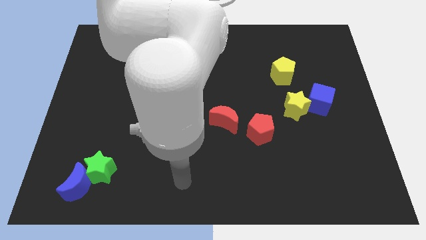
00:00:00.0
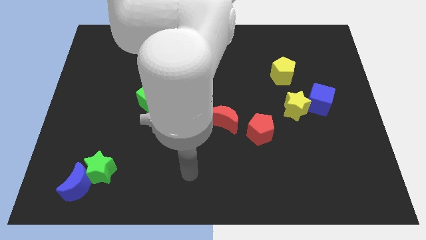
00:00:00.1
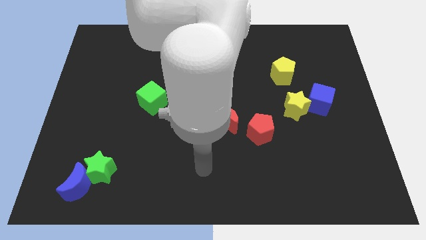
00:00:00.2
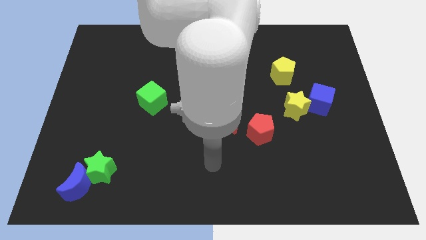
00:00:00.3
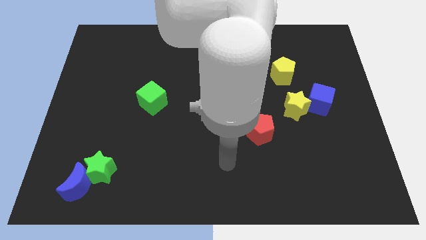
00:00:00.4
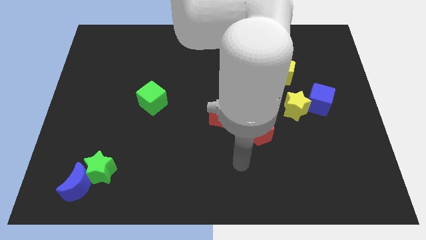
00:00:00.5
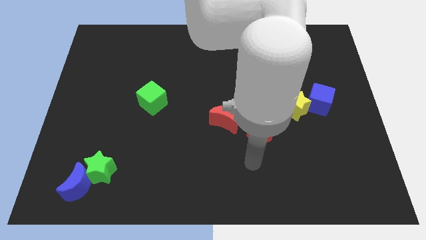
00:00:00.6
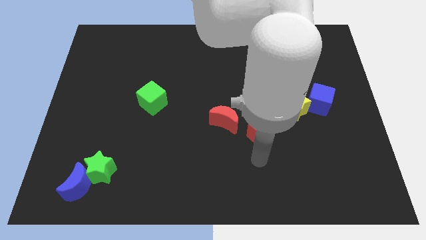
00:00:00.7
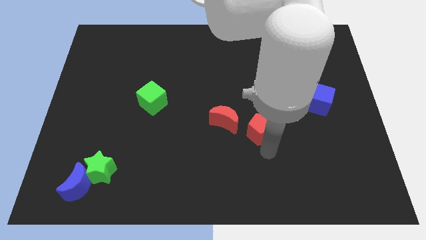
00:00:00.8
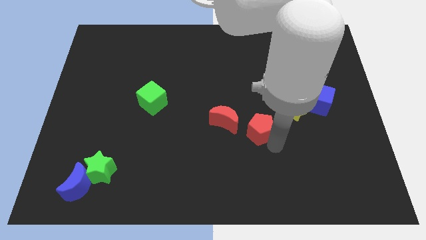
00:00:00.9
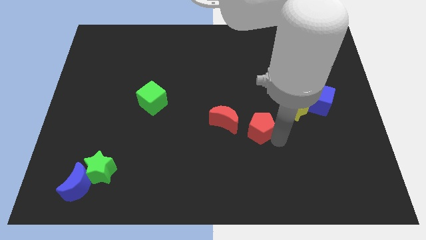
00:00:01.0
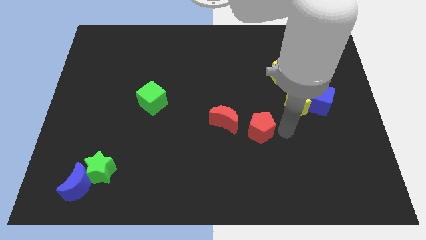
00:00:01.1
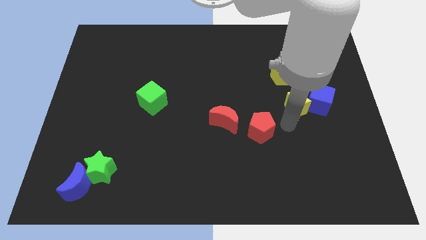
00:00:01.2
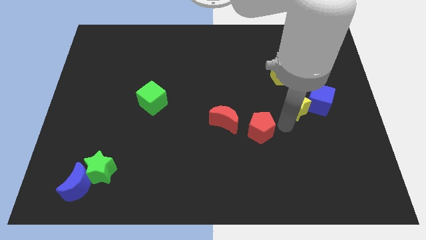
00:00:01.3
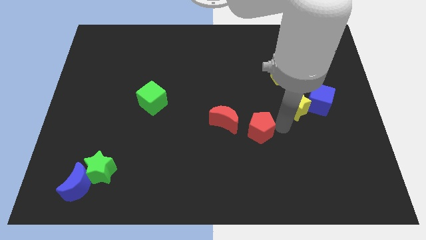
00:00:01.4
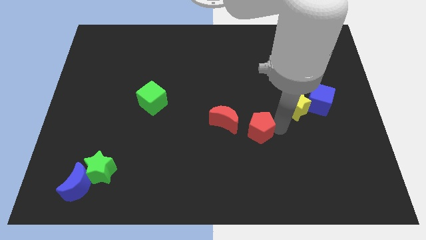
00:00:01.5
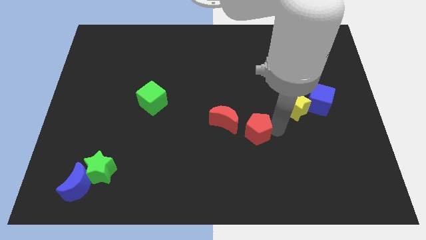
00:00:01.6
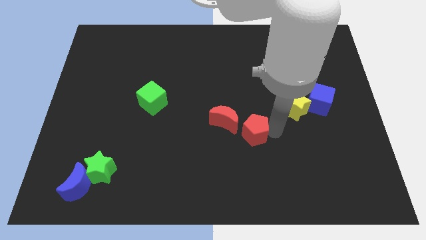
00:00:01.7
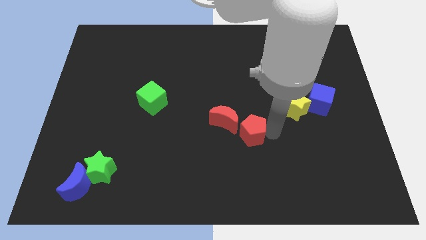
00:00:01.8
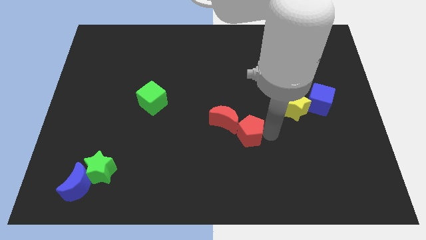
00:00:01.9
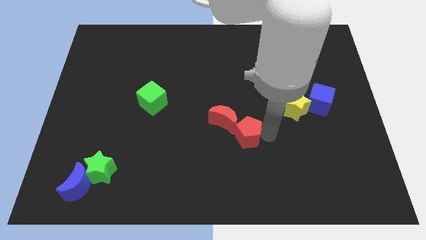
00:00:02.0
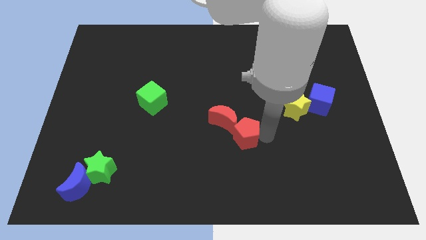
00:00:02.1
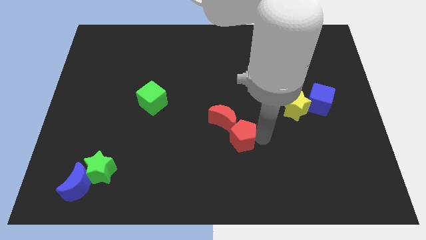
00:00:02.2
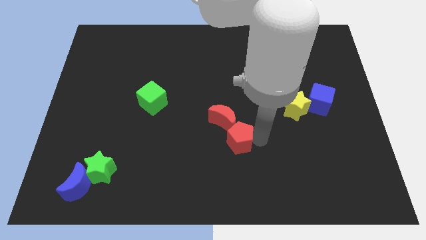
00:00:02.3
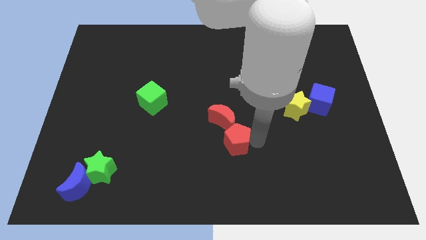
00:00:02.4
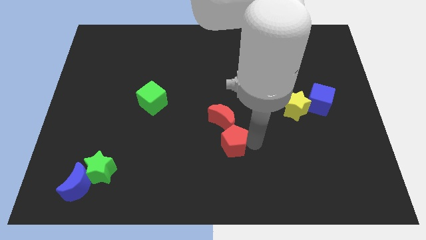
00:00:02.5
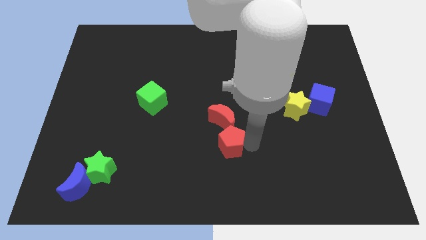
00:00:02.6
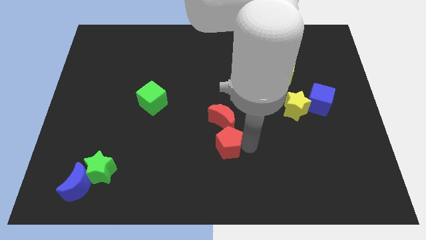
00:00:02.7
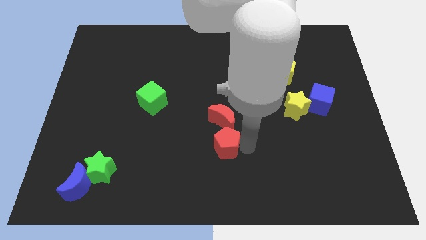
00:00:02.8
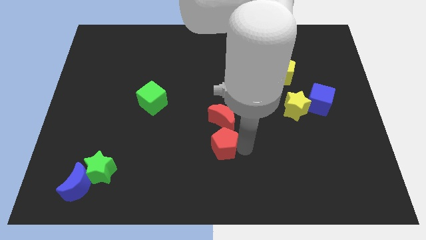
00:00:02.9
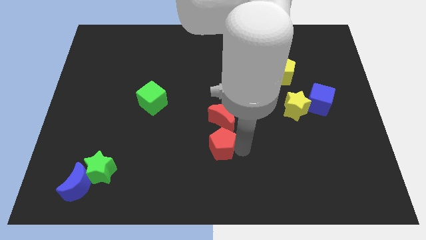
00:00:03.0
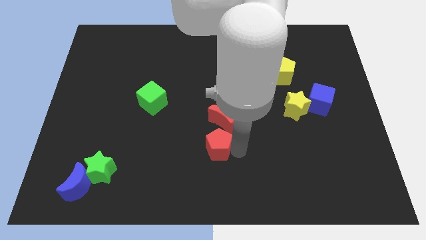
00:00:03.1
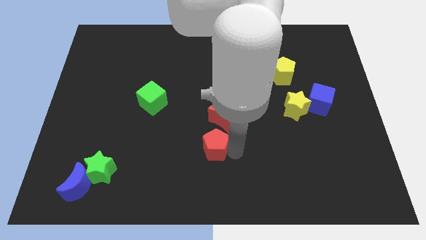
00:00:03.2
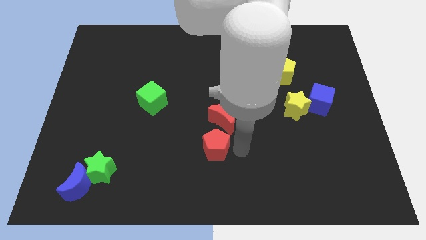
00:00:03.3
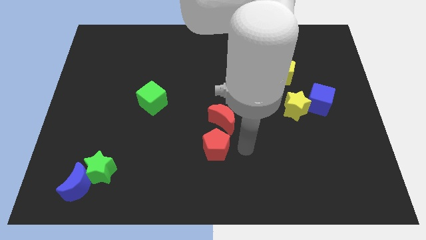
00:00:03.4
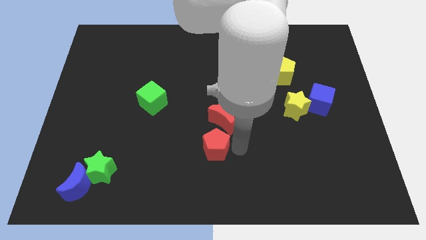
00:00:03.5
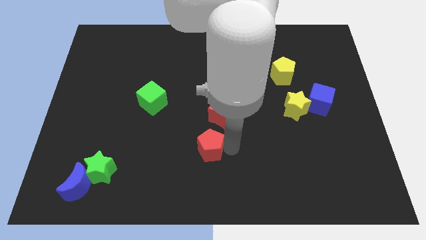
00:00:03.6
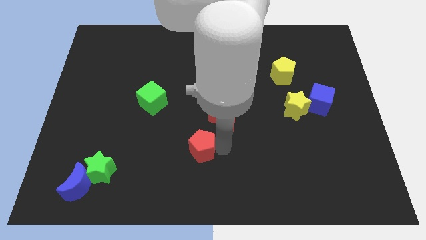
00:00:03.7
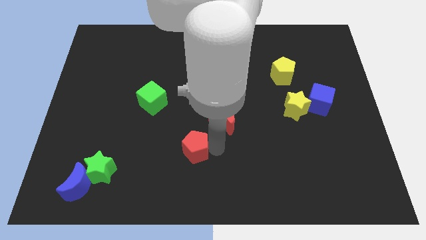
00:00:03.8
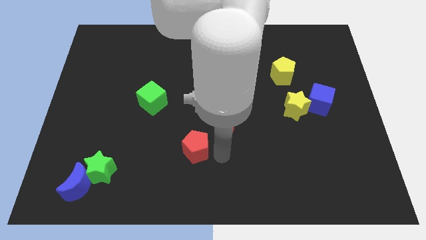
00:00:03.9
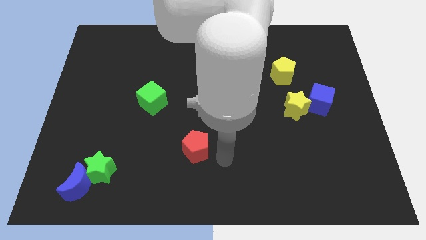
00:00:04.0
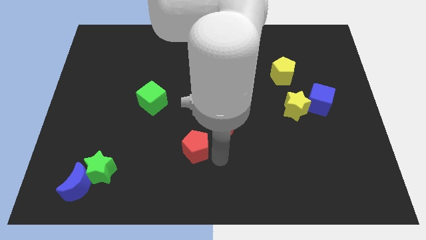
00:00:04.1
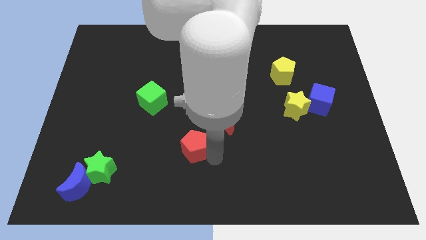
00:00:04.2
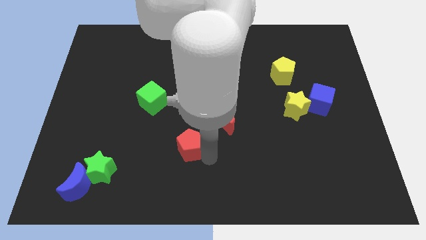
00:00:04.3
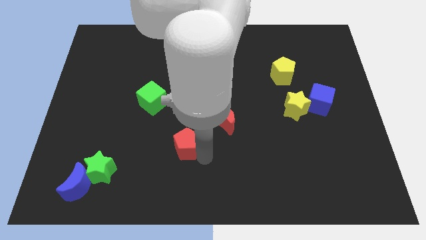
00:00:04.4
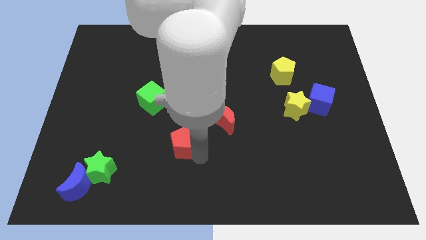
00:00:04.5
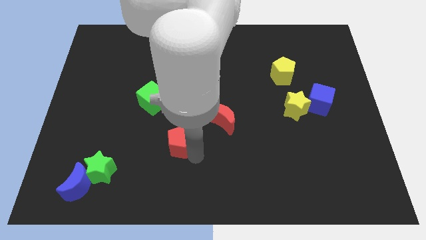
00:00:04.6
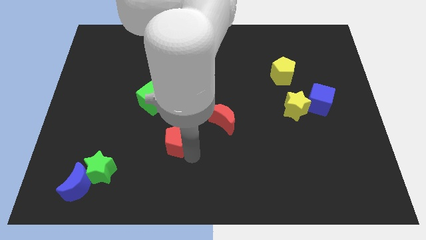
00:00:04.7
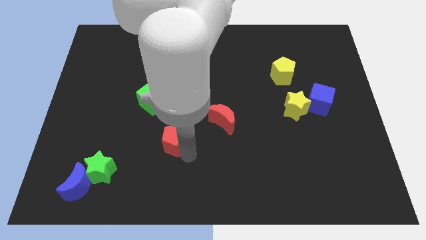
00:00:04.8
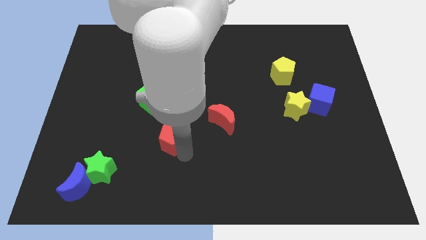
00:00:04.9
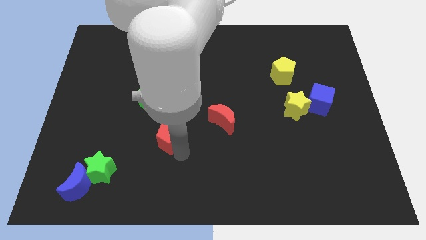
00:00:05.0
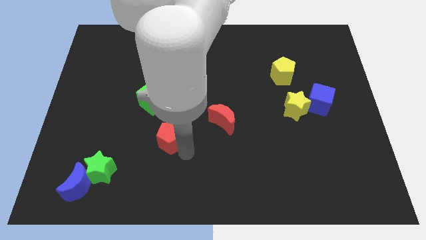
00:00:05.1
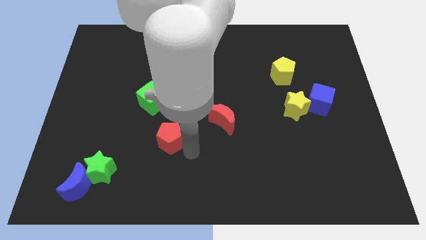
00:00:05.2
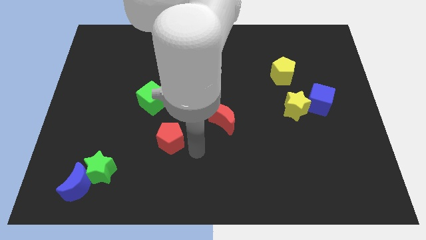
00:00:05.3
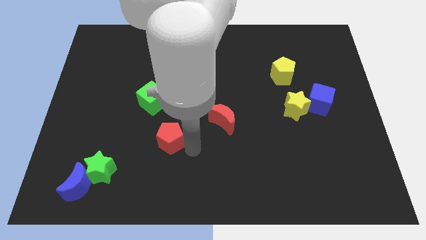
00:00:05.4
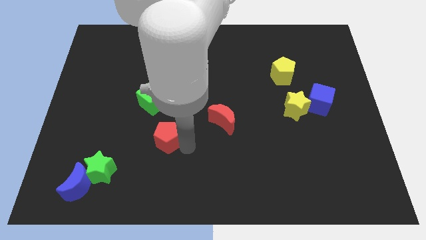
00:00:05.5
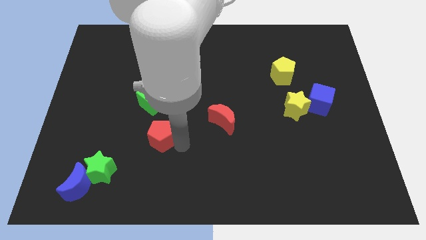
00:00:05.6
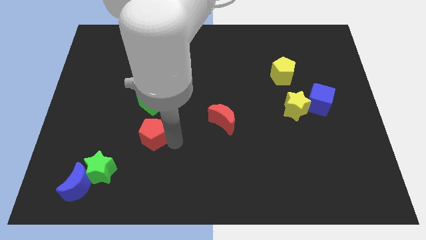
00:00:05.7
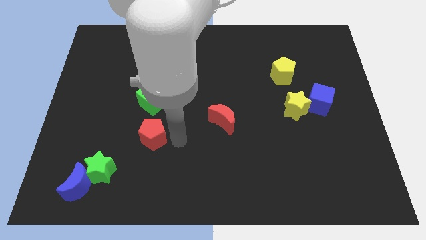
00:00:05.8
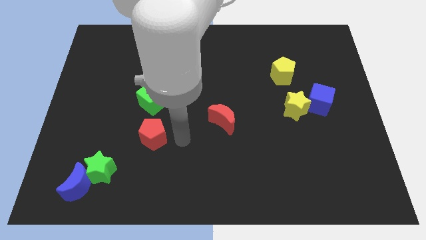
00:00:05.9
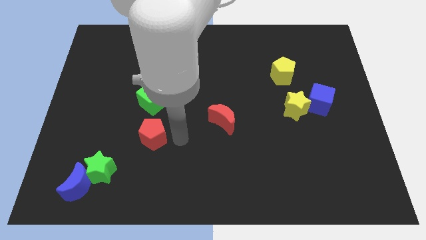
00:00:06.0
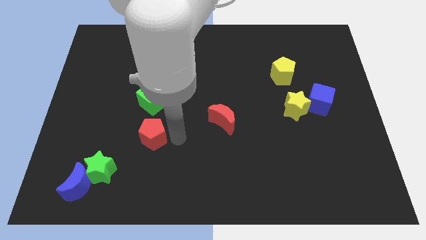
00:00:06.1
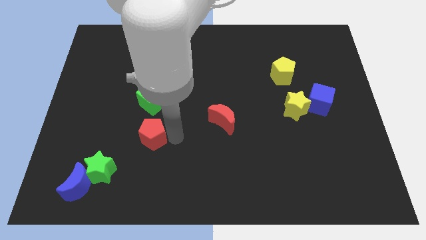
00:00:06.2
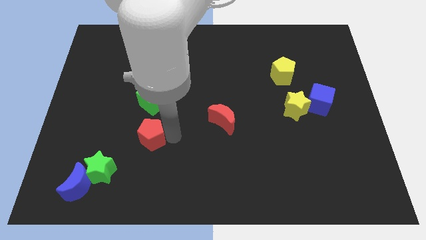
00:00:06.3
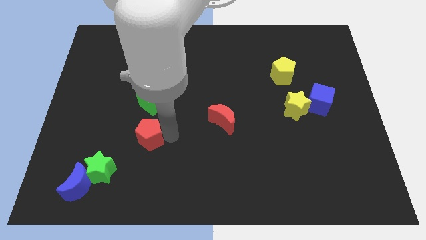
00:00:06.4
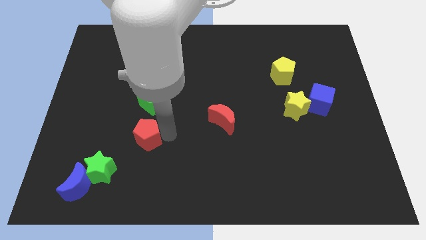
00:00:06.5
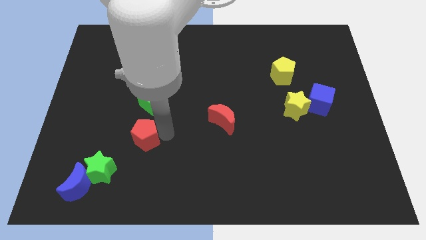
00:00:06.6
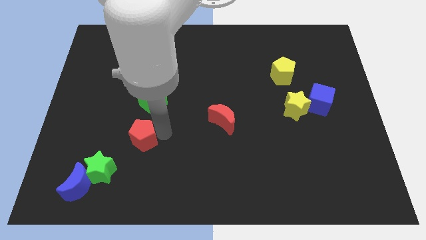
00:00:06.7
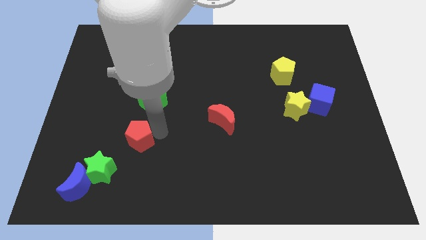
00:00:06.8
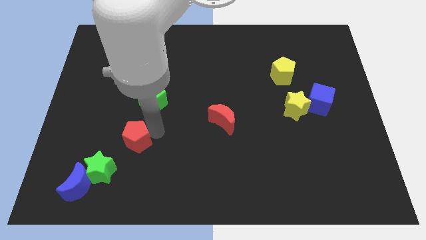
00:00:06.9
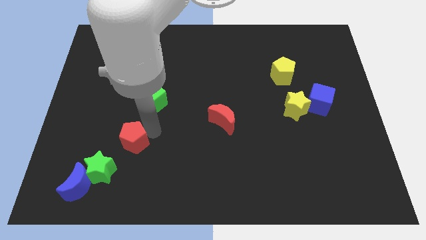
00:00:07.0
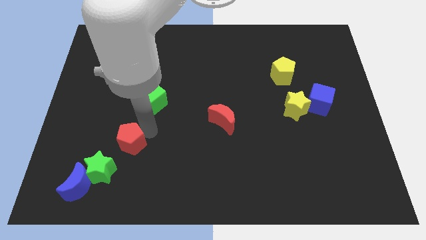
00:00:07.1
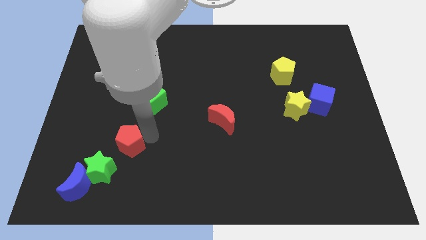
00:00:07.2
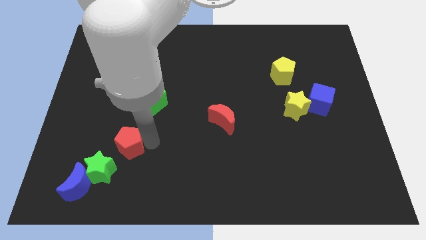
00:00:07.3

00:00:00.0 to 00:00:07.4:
put the red pentagon to the top of the green star
